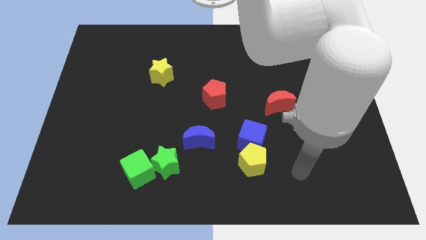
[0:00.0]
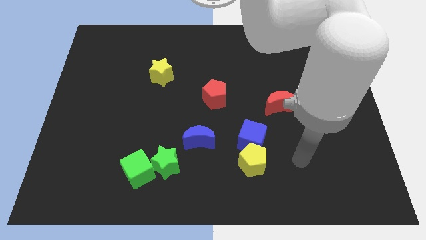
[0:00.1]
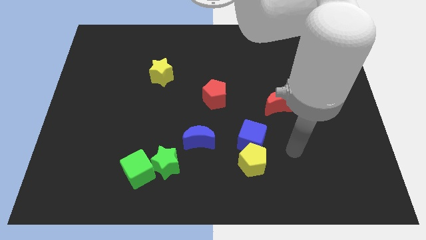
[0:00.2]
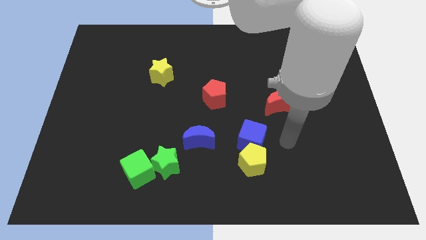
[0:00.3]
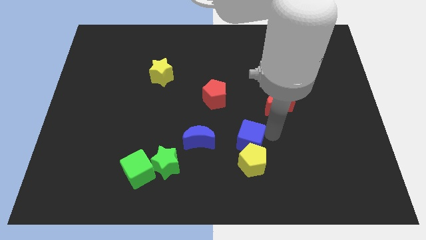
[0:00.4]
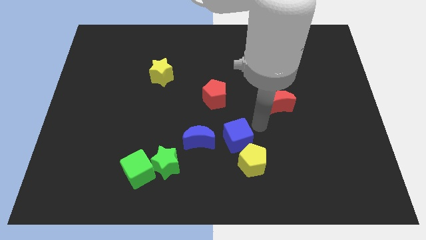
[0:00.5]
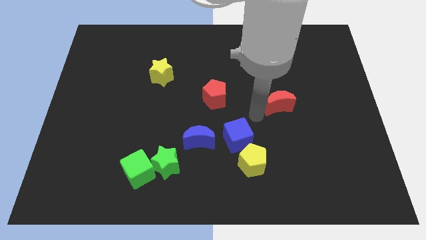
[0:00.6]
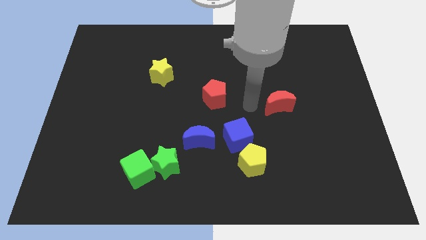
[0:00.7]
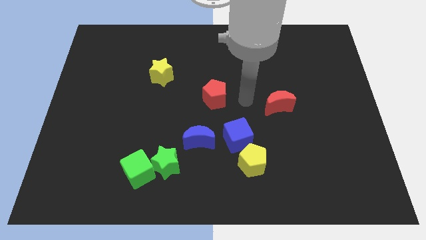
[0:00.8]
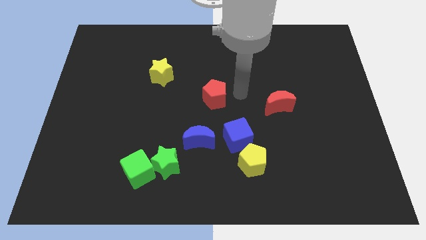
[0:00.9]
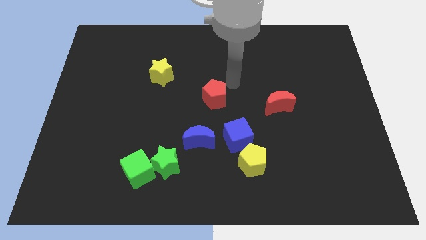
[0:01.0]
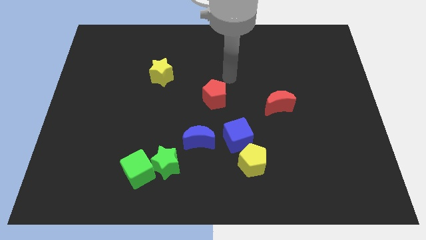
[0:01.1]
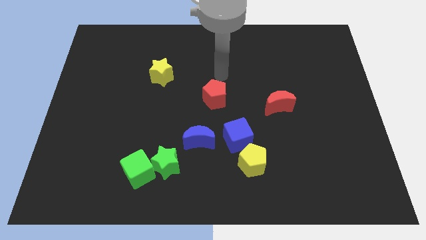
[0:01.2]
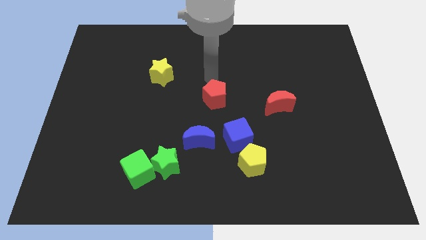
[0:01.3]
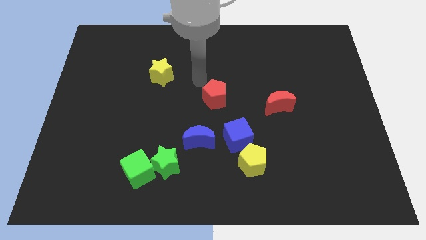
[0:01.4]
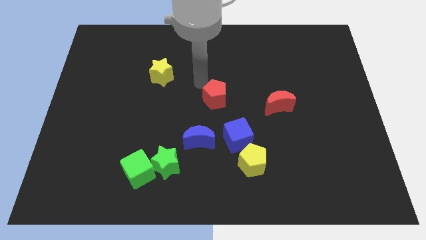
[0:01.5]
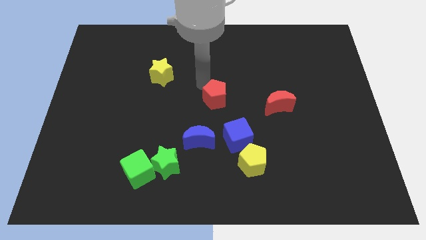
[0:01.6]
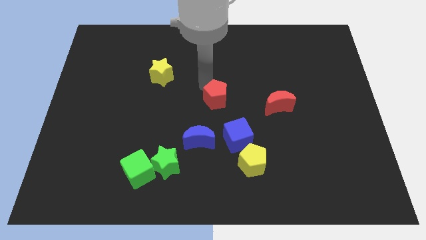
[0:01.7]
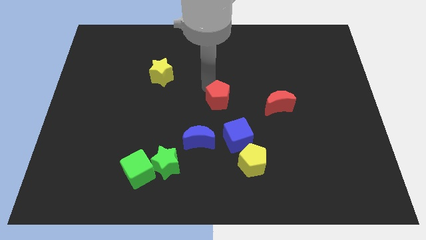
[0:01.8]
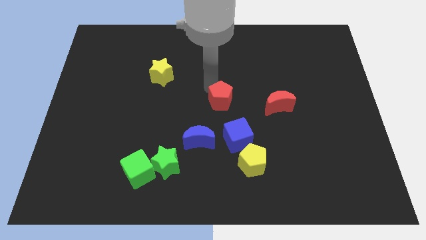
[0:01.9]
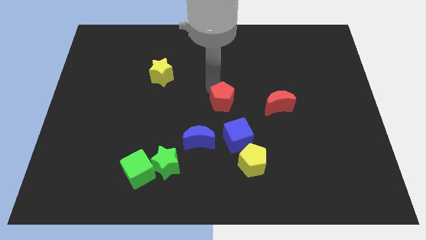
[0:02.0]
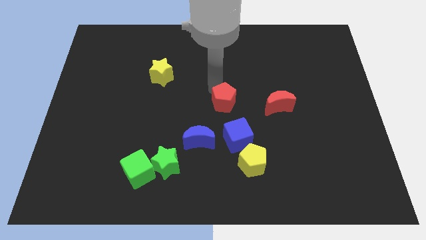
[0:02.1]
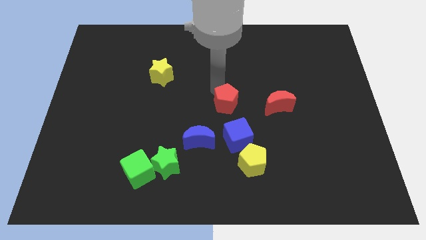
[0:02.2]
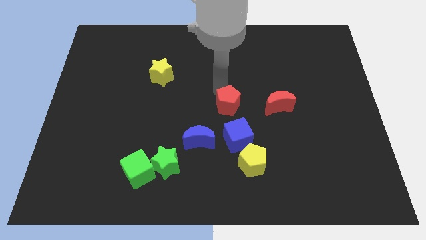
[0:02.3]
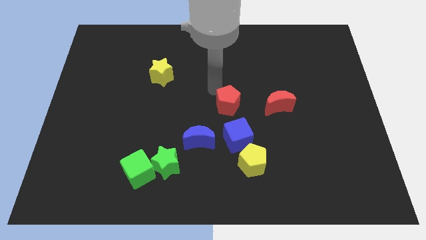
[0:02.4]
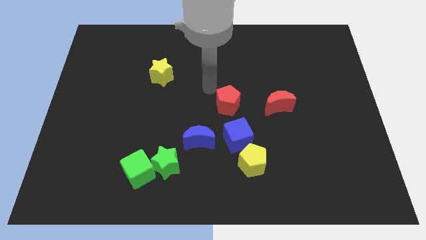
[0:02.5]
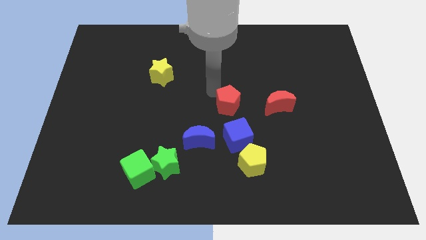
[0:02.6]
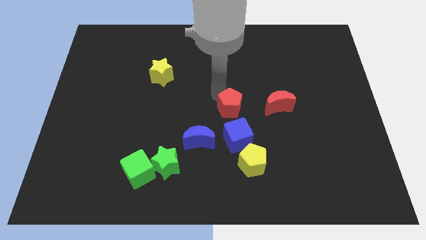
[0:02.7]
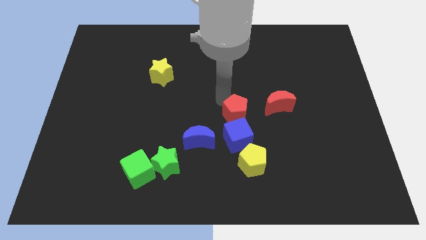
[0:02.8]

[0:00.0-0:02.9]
push the red pentagon a little down and to the right diagonally

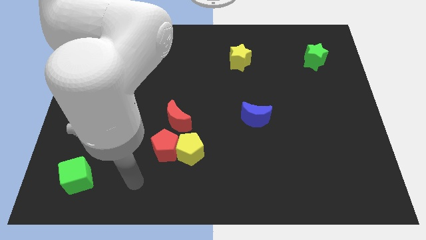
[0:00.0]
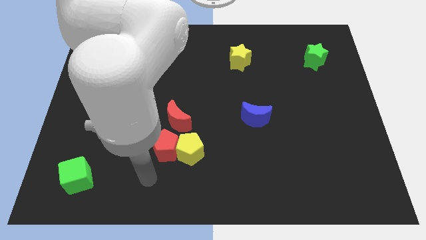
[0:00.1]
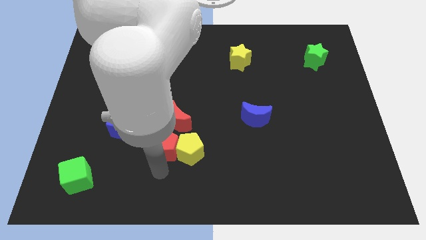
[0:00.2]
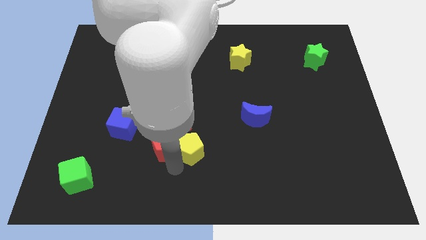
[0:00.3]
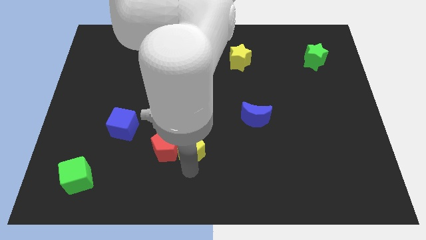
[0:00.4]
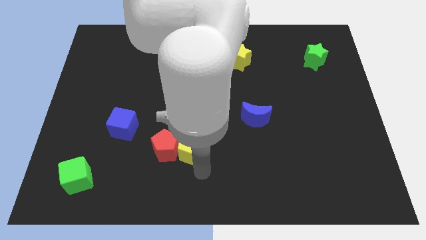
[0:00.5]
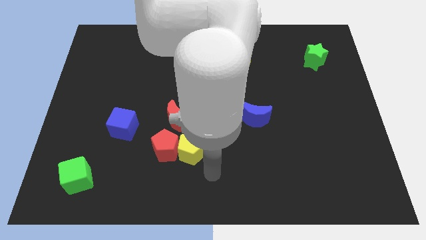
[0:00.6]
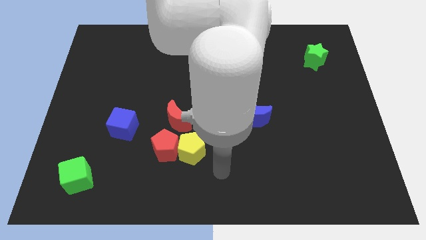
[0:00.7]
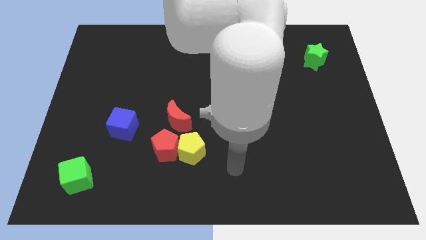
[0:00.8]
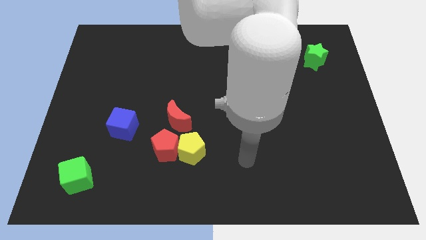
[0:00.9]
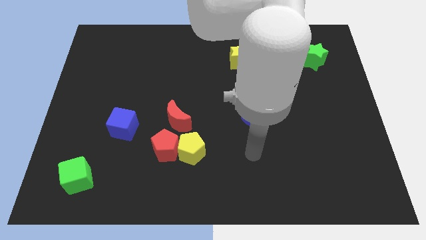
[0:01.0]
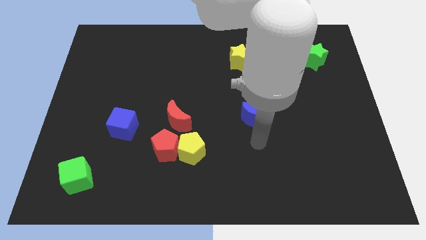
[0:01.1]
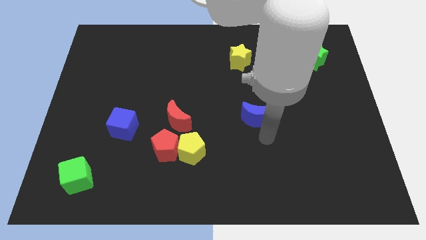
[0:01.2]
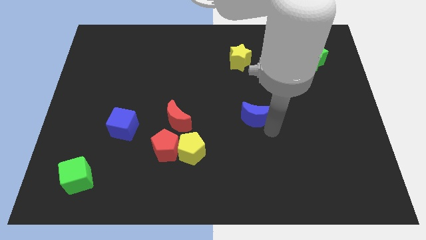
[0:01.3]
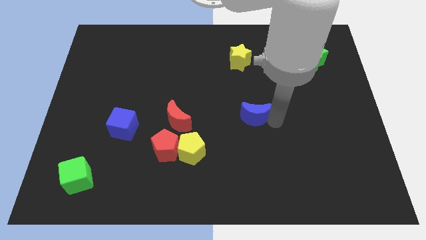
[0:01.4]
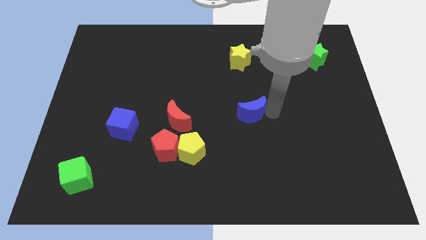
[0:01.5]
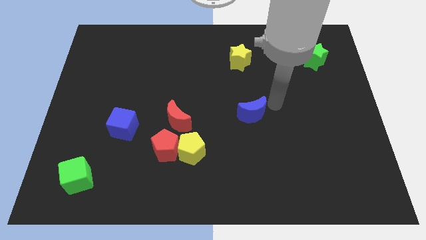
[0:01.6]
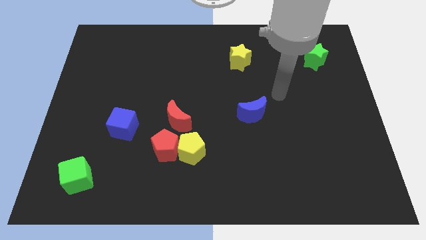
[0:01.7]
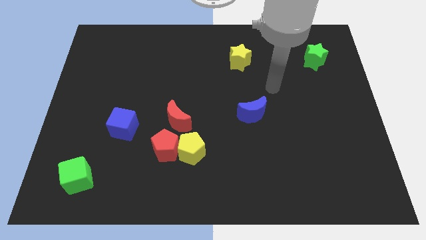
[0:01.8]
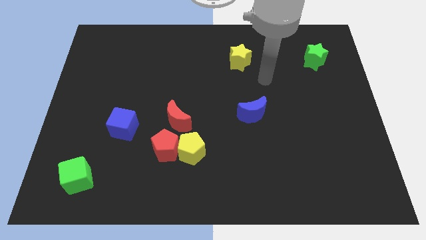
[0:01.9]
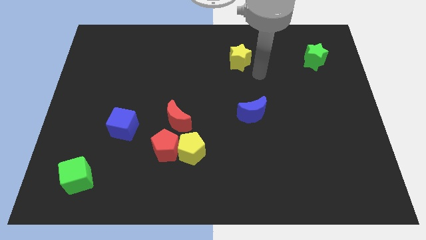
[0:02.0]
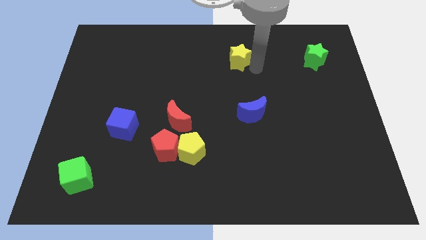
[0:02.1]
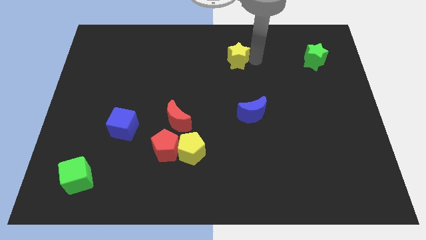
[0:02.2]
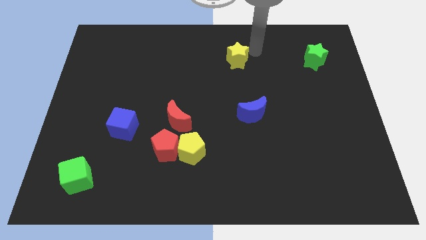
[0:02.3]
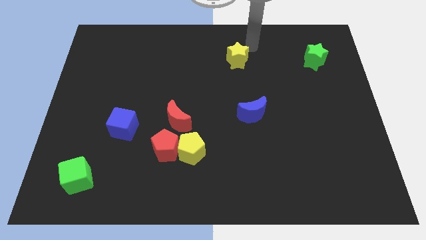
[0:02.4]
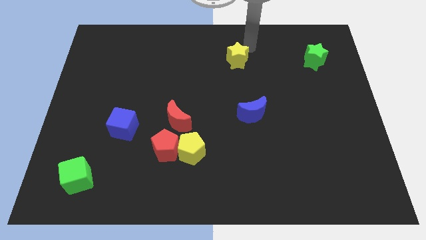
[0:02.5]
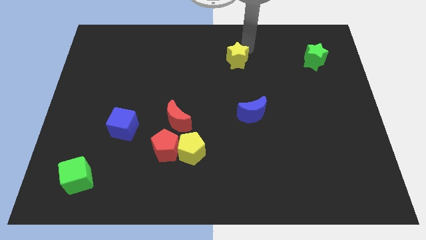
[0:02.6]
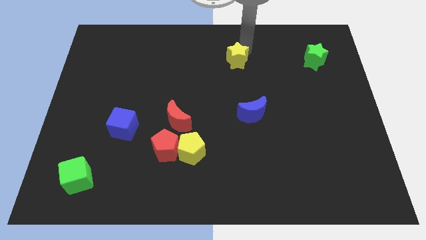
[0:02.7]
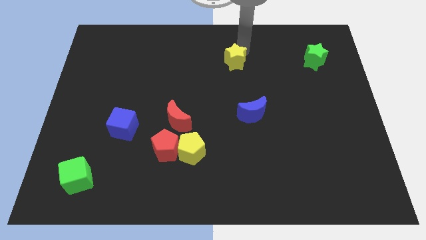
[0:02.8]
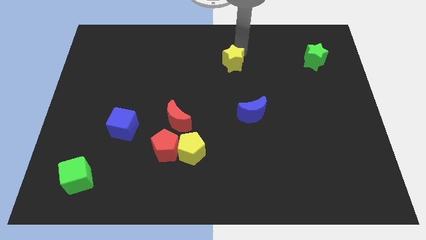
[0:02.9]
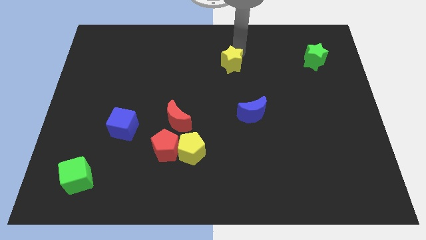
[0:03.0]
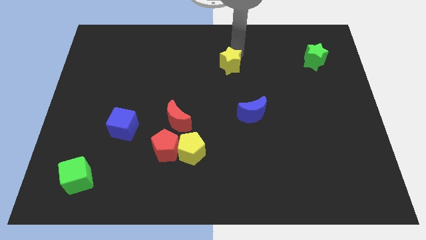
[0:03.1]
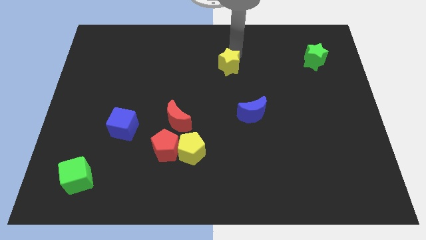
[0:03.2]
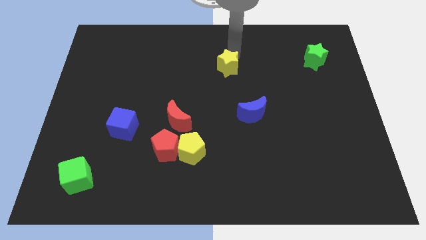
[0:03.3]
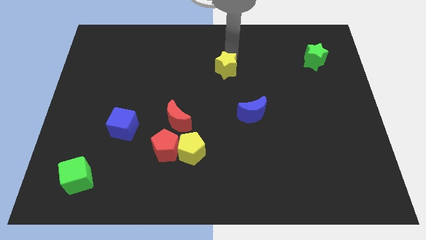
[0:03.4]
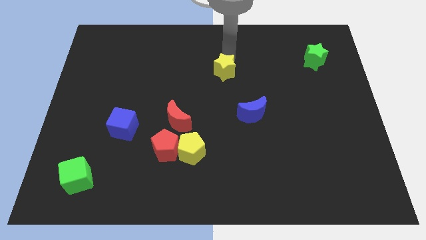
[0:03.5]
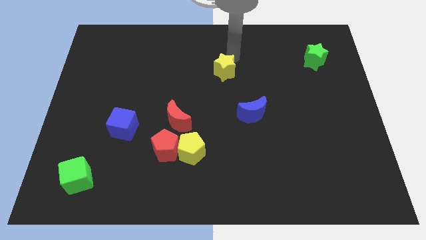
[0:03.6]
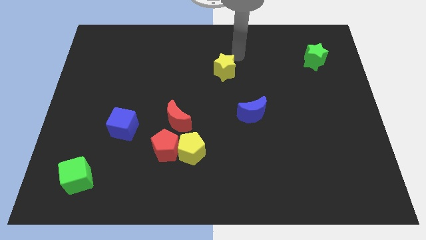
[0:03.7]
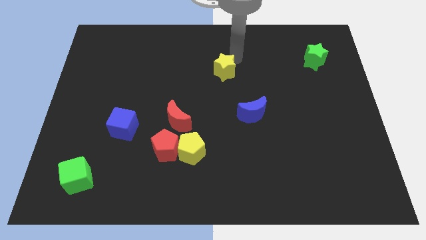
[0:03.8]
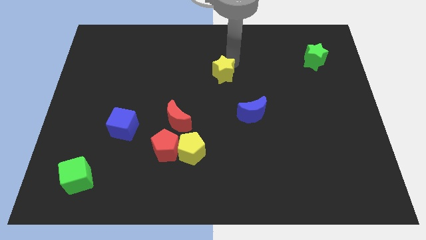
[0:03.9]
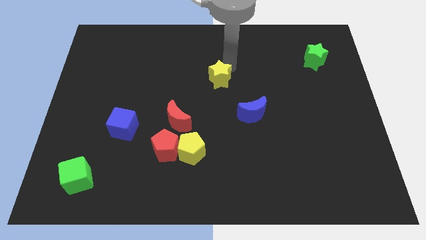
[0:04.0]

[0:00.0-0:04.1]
move the yellow star a little bit downwards and then to the left

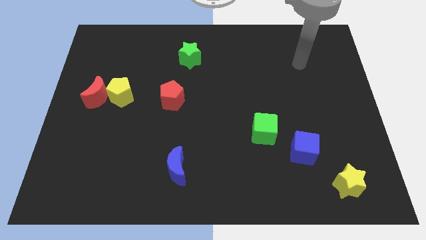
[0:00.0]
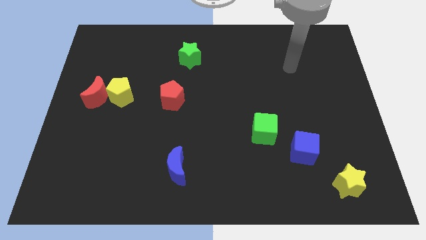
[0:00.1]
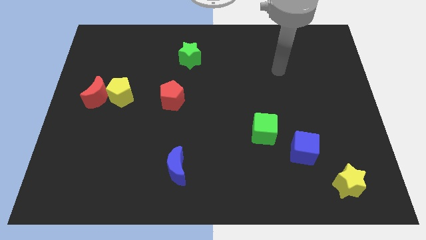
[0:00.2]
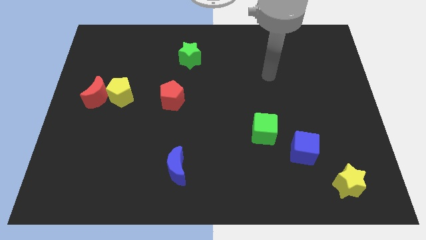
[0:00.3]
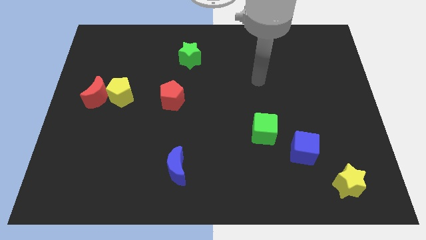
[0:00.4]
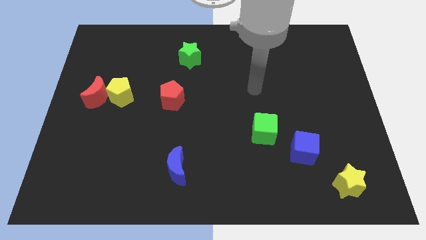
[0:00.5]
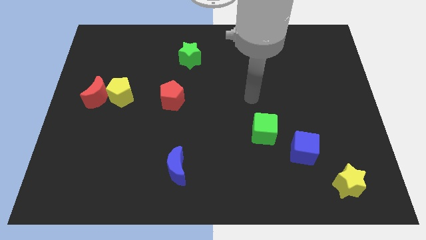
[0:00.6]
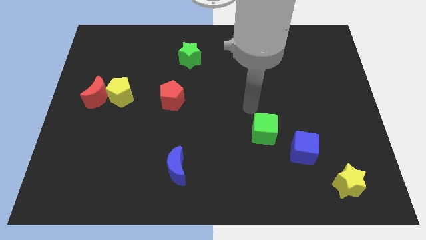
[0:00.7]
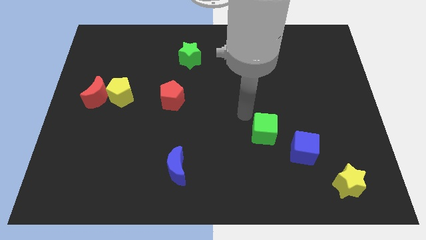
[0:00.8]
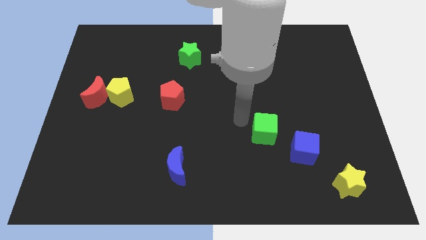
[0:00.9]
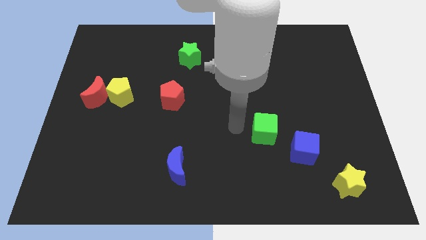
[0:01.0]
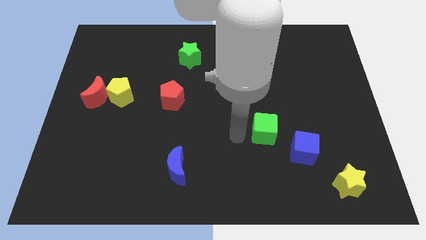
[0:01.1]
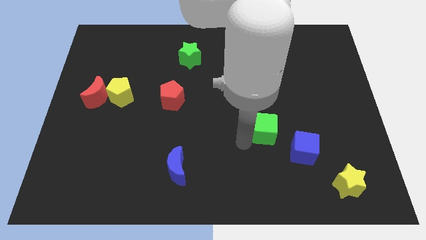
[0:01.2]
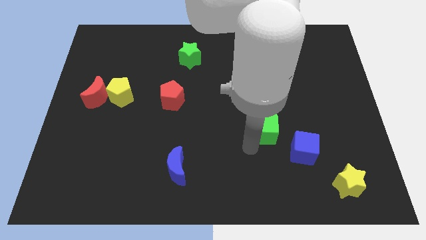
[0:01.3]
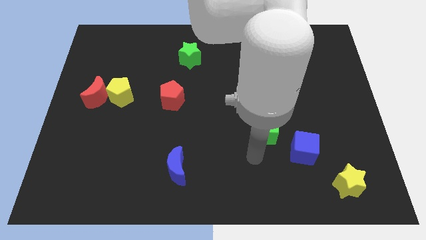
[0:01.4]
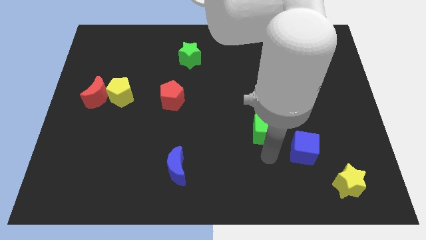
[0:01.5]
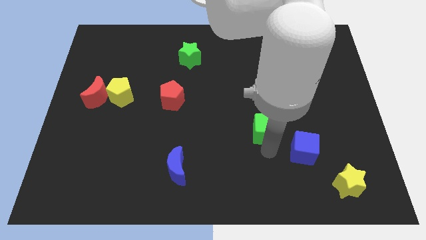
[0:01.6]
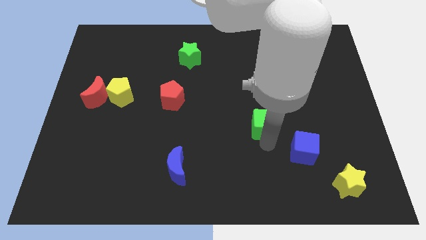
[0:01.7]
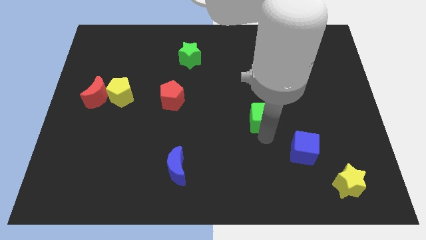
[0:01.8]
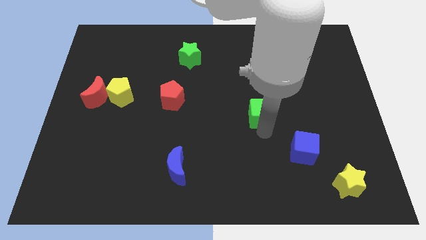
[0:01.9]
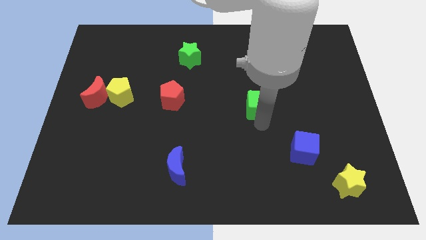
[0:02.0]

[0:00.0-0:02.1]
slide the green cube up a little
